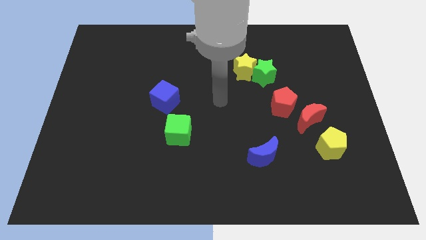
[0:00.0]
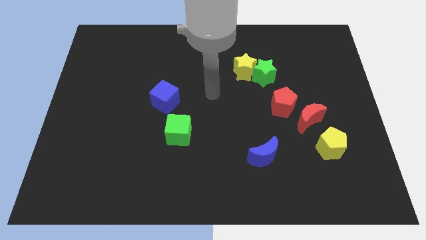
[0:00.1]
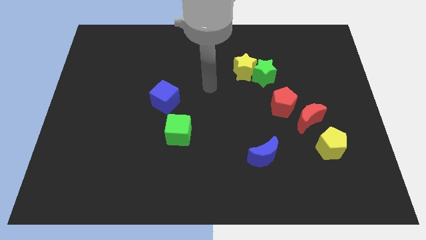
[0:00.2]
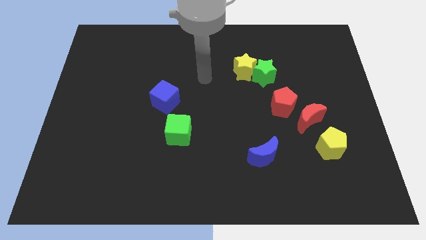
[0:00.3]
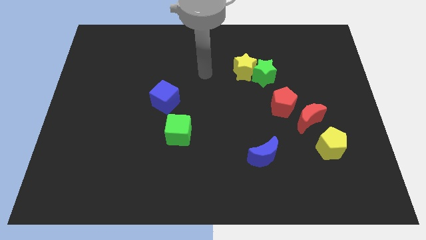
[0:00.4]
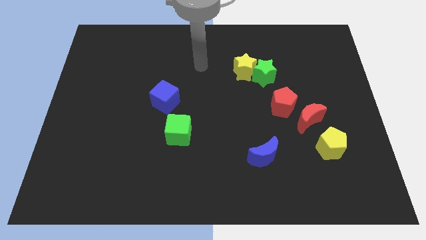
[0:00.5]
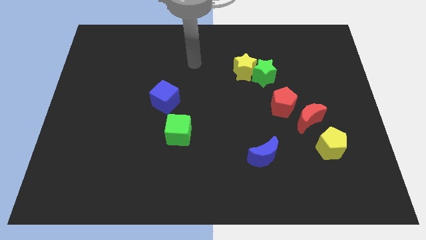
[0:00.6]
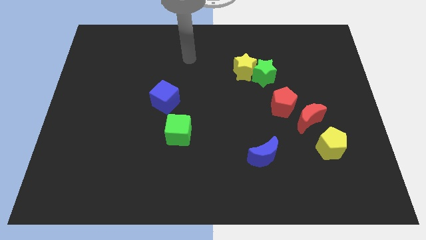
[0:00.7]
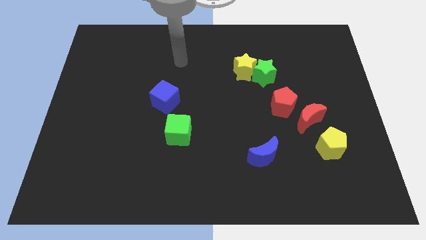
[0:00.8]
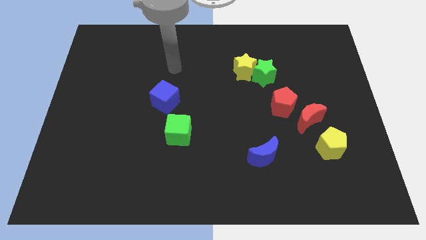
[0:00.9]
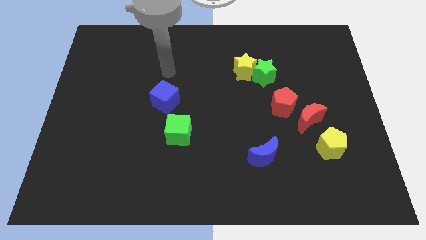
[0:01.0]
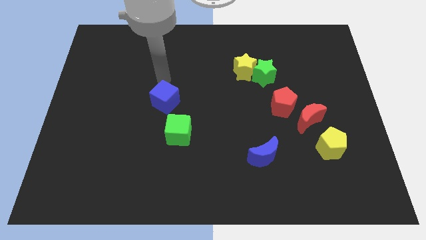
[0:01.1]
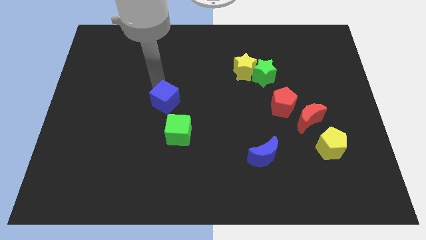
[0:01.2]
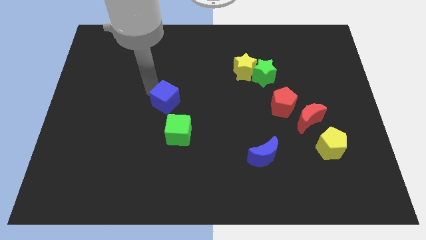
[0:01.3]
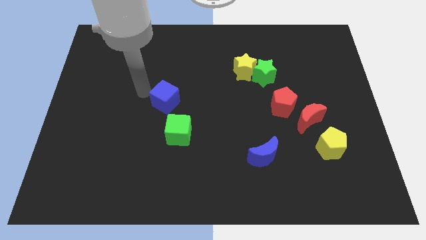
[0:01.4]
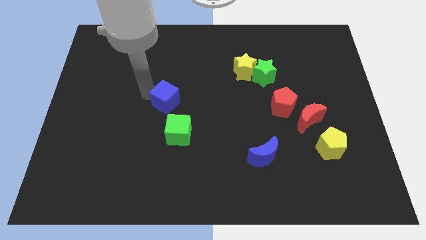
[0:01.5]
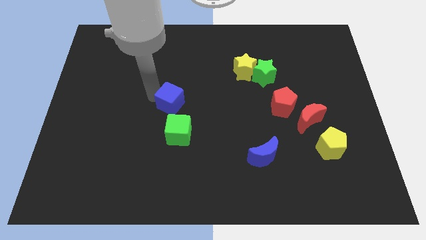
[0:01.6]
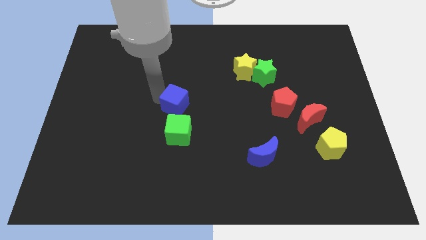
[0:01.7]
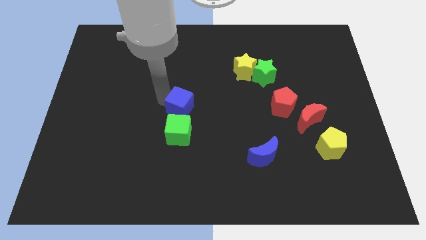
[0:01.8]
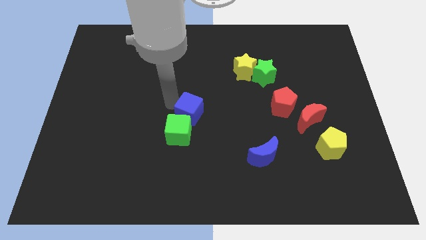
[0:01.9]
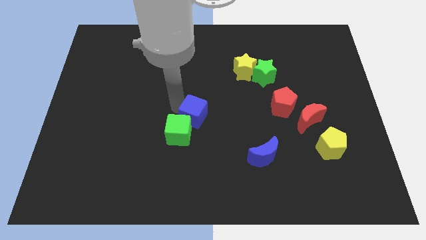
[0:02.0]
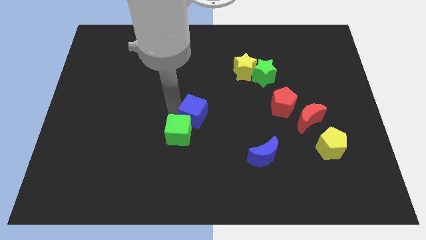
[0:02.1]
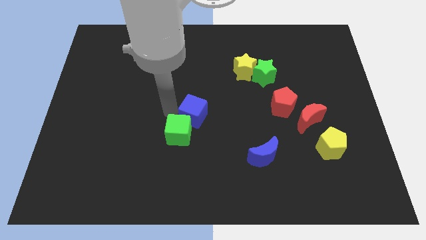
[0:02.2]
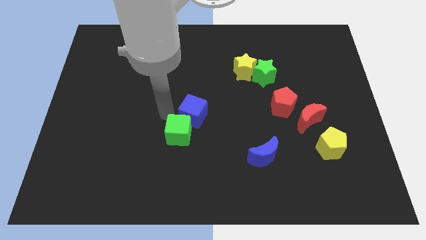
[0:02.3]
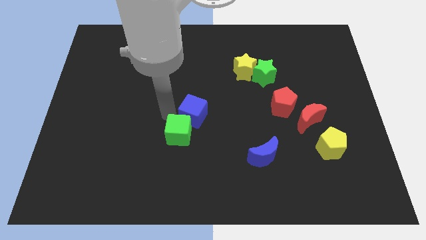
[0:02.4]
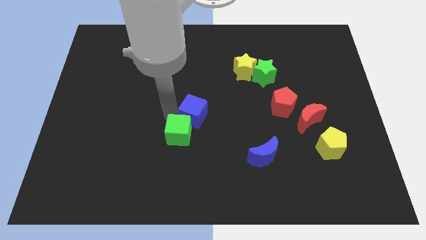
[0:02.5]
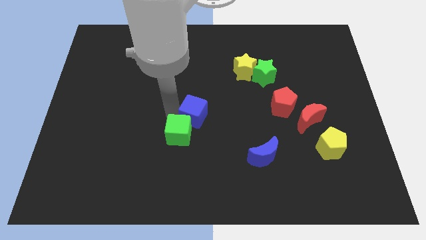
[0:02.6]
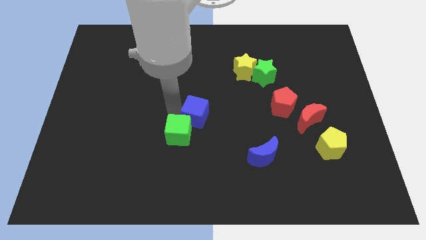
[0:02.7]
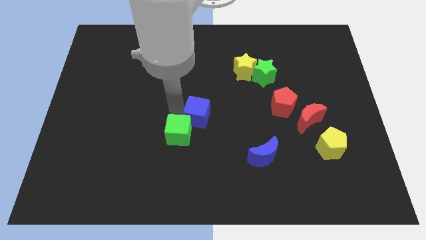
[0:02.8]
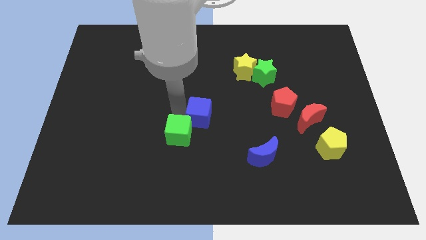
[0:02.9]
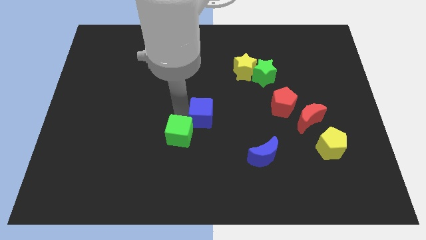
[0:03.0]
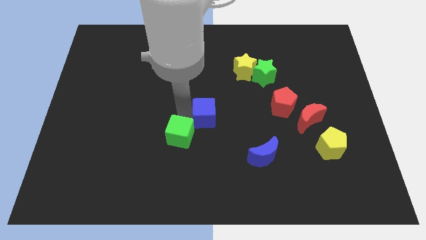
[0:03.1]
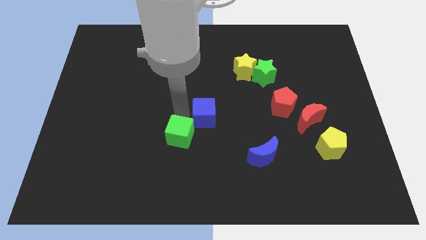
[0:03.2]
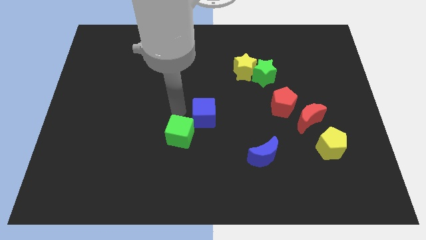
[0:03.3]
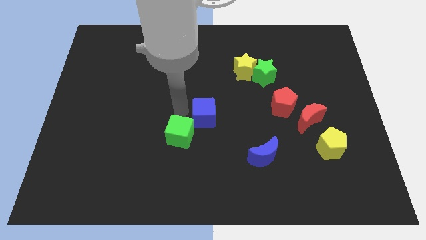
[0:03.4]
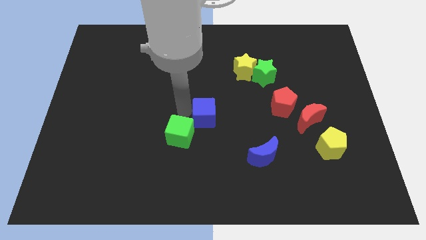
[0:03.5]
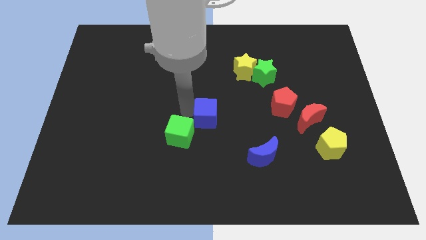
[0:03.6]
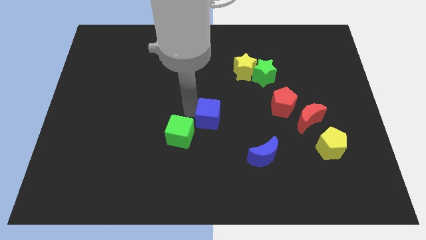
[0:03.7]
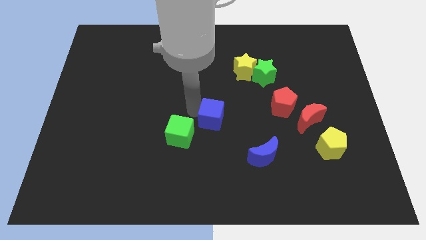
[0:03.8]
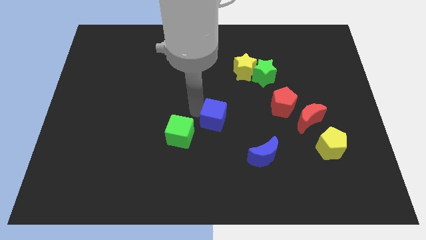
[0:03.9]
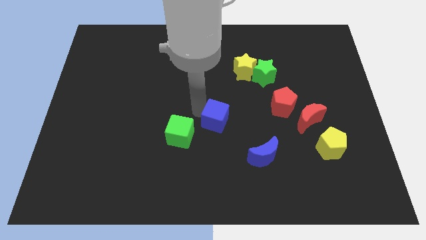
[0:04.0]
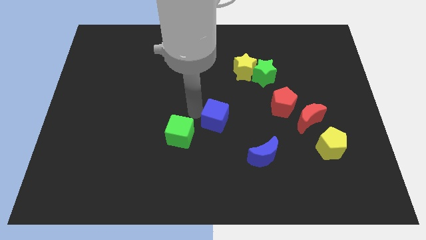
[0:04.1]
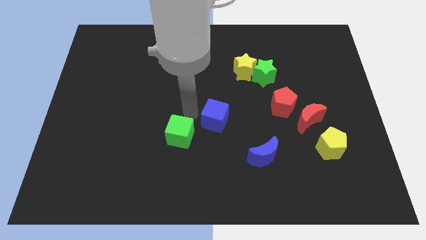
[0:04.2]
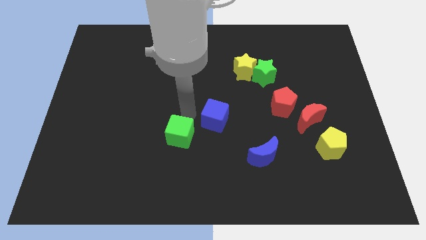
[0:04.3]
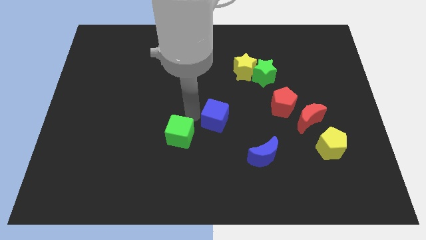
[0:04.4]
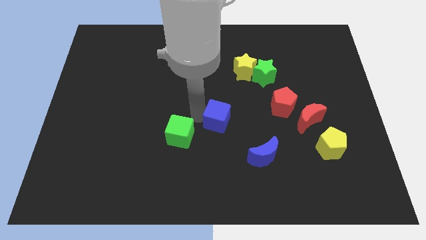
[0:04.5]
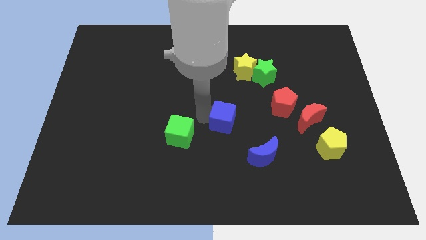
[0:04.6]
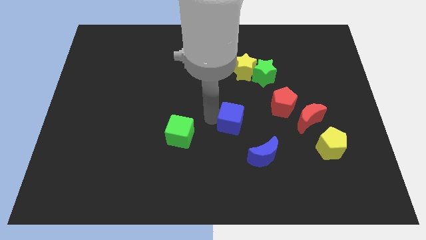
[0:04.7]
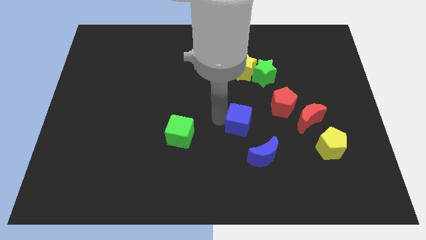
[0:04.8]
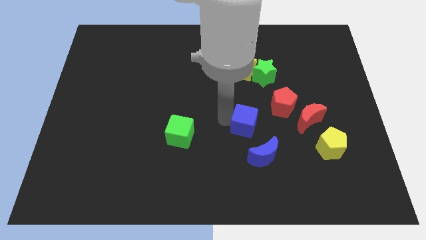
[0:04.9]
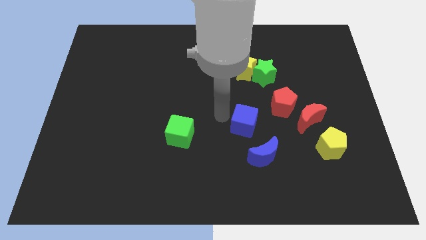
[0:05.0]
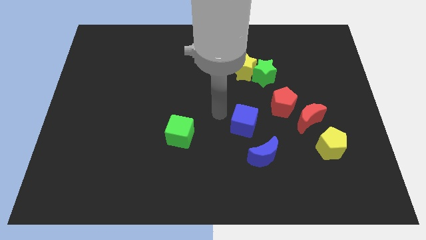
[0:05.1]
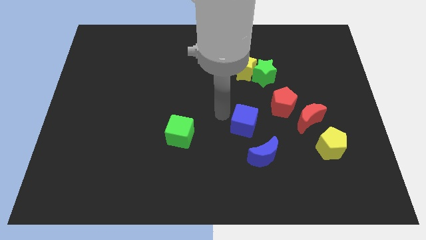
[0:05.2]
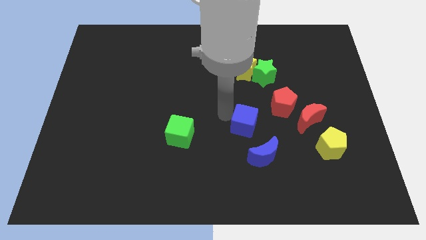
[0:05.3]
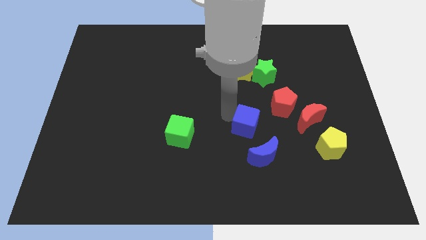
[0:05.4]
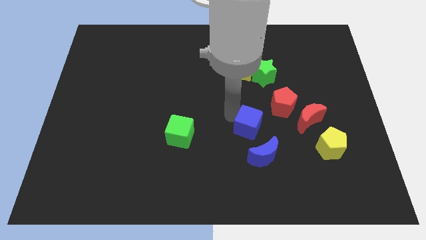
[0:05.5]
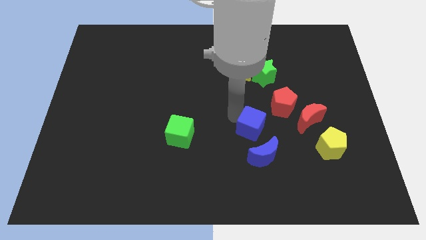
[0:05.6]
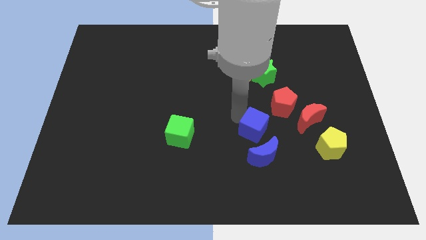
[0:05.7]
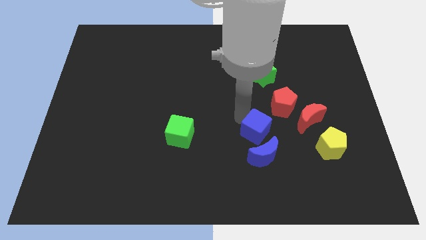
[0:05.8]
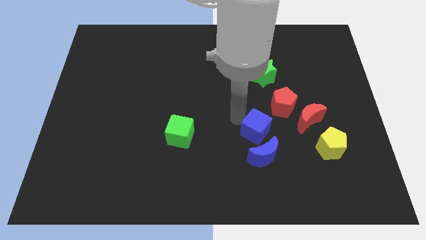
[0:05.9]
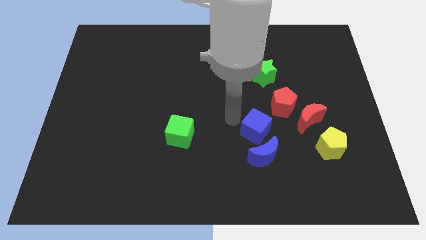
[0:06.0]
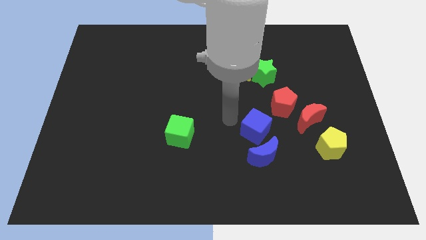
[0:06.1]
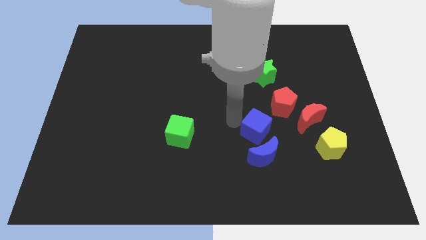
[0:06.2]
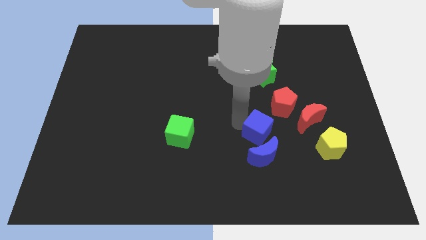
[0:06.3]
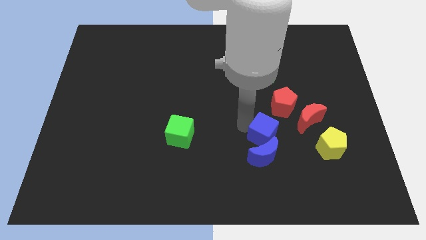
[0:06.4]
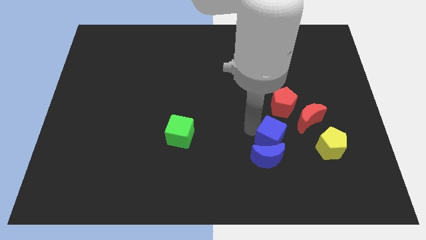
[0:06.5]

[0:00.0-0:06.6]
put the blue cube to the bottom of the red pentagon
